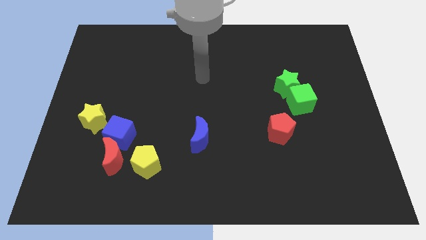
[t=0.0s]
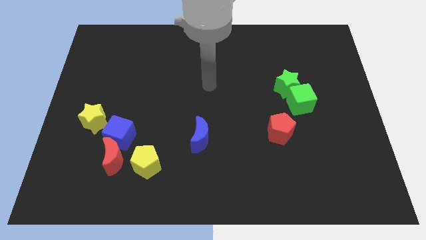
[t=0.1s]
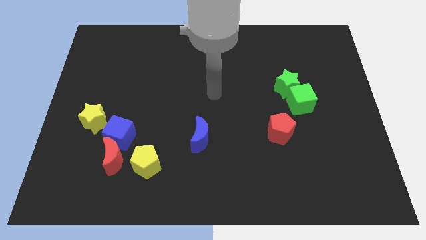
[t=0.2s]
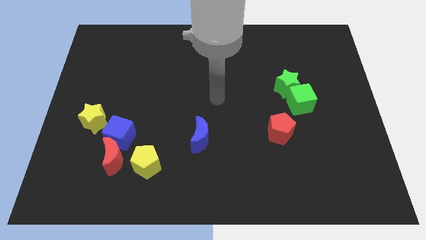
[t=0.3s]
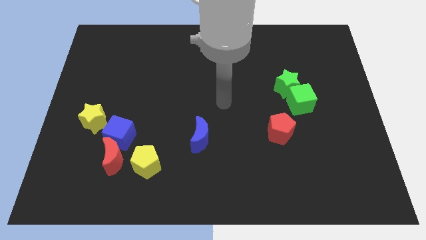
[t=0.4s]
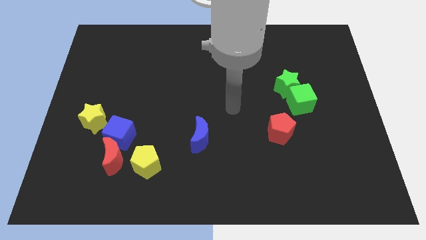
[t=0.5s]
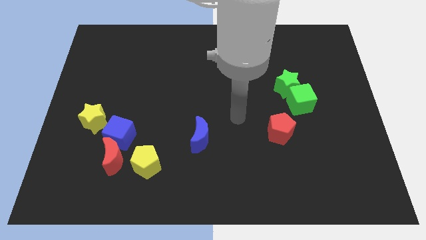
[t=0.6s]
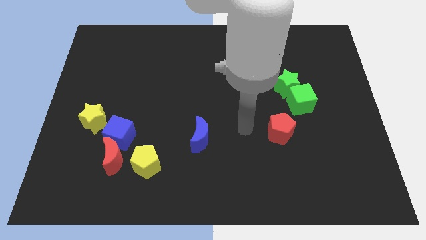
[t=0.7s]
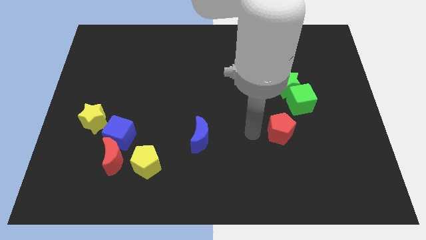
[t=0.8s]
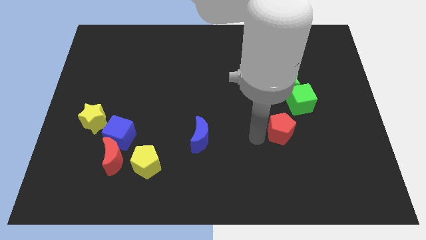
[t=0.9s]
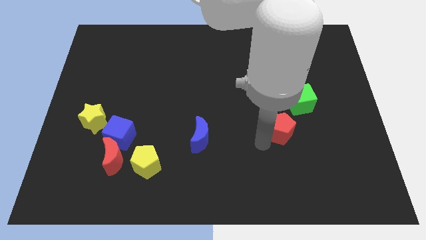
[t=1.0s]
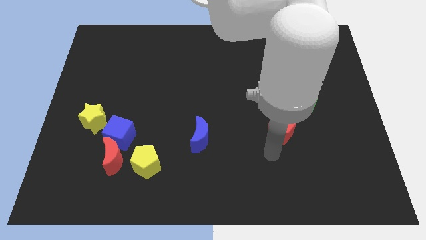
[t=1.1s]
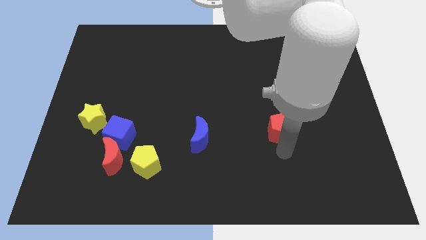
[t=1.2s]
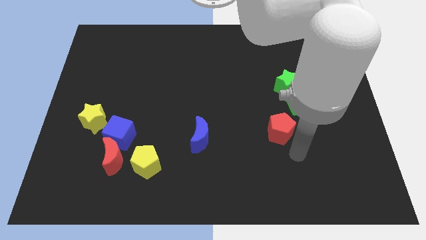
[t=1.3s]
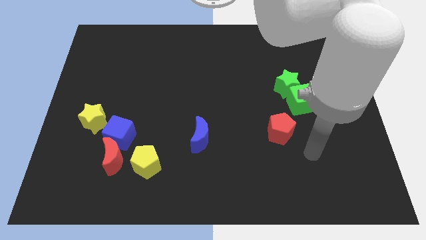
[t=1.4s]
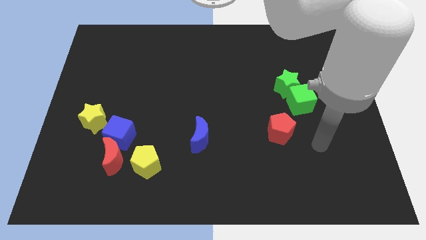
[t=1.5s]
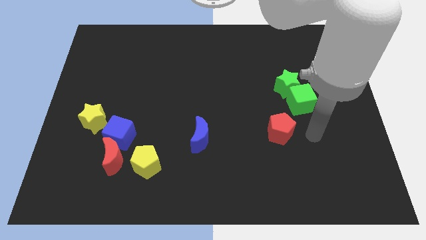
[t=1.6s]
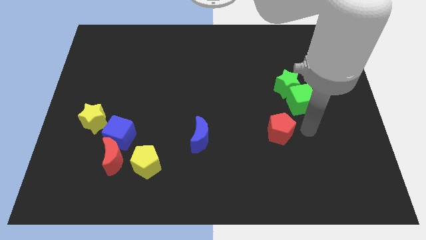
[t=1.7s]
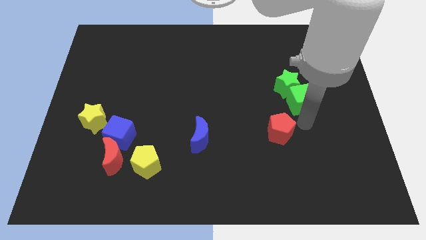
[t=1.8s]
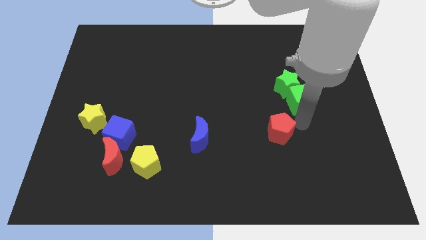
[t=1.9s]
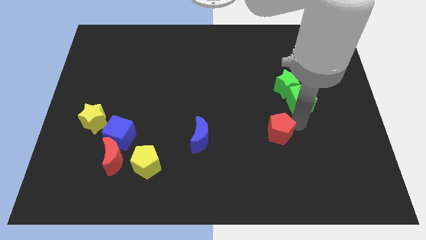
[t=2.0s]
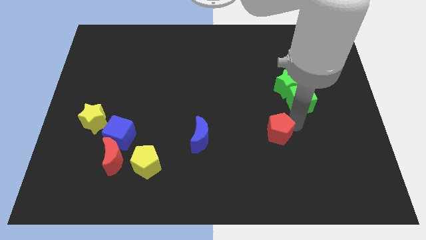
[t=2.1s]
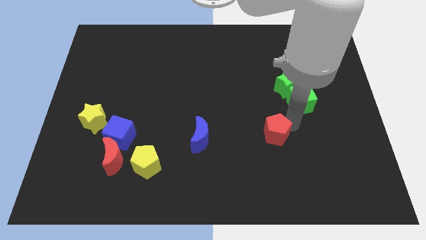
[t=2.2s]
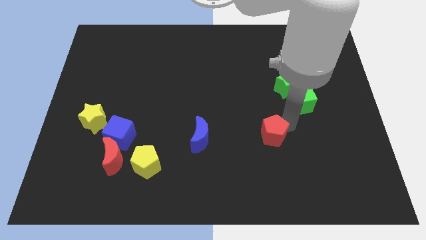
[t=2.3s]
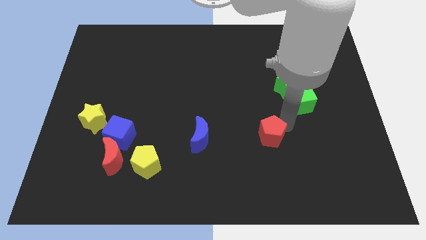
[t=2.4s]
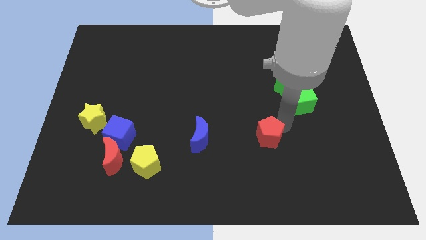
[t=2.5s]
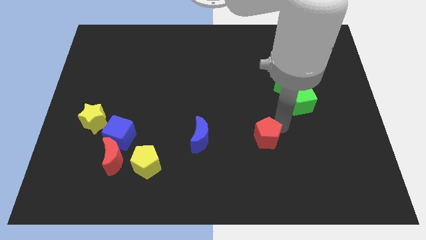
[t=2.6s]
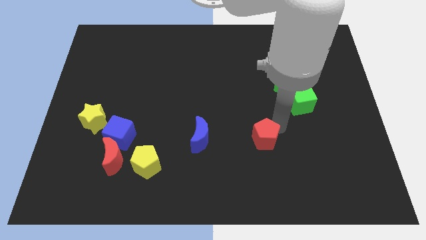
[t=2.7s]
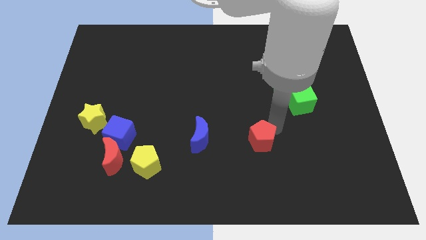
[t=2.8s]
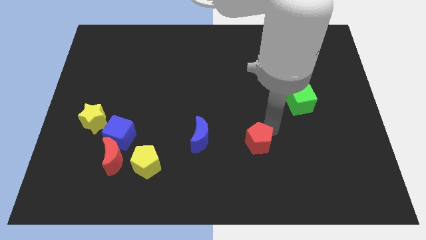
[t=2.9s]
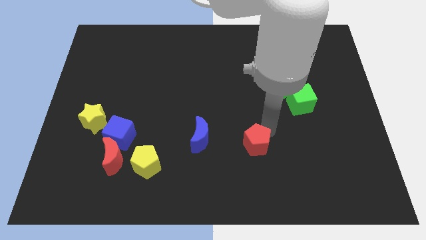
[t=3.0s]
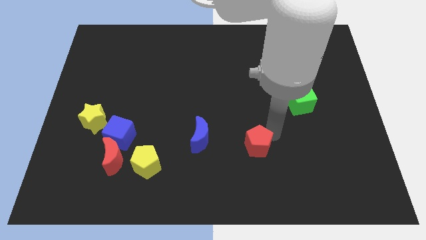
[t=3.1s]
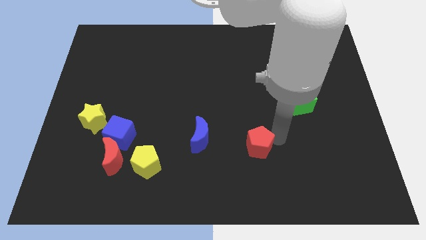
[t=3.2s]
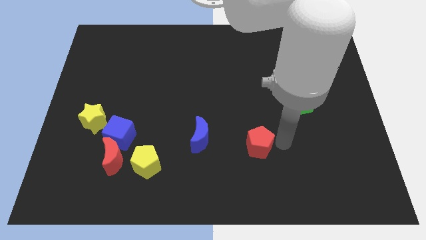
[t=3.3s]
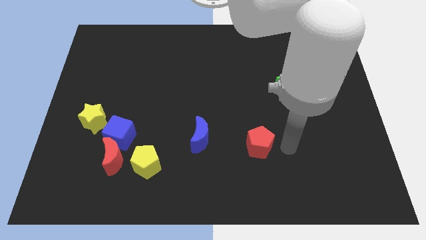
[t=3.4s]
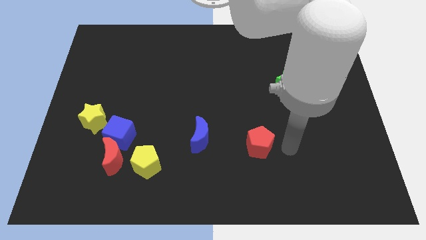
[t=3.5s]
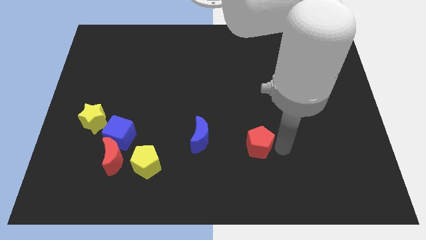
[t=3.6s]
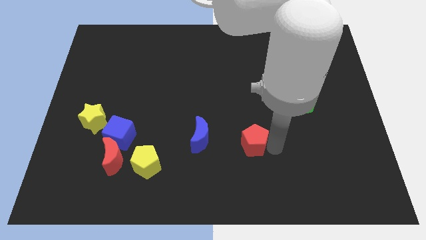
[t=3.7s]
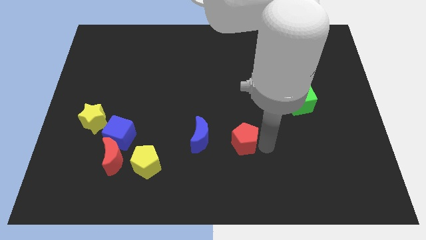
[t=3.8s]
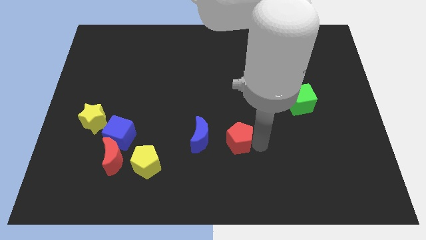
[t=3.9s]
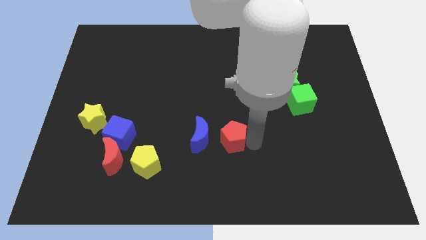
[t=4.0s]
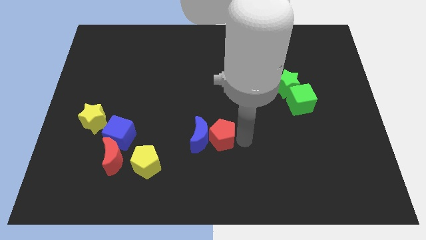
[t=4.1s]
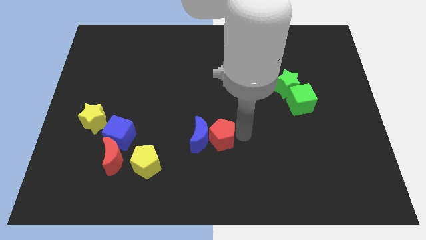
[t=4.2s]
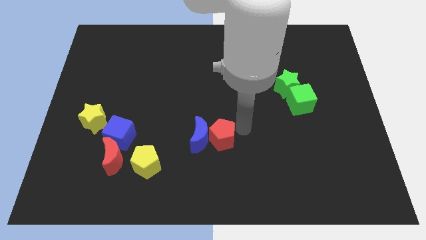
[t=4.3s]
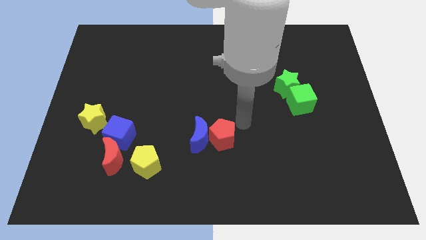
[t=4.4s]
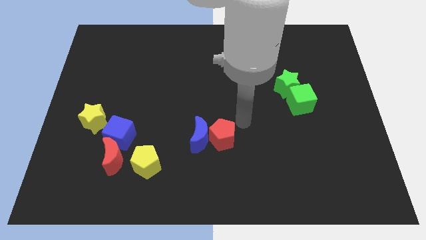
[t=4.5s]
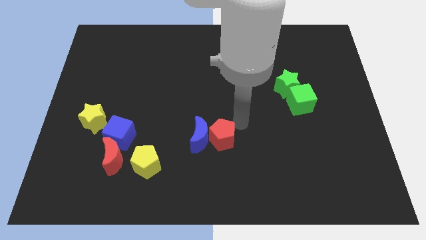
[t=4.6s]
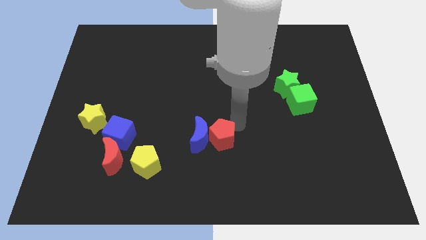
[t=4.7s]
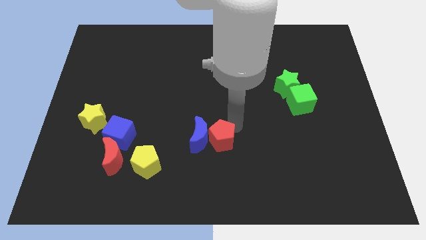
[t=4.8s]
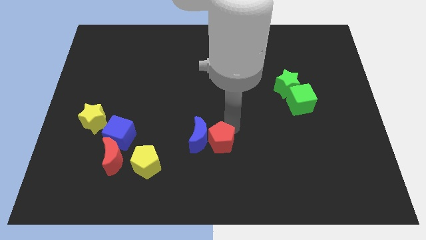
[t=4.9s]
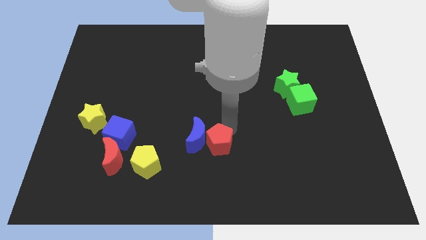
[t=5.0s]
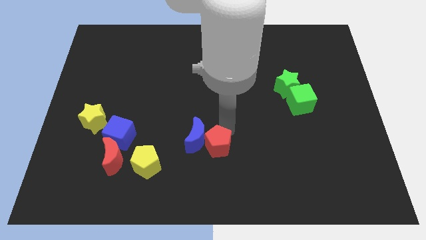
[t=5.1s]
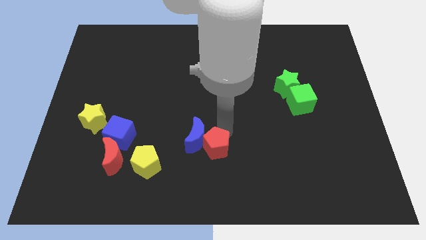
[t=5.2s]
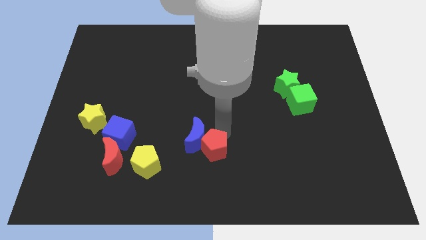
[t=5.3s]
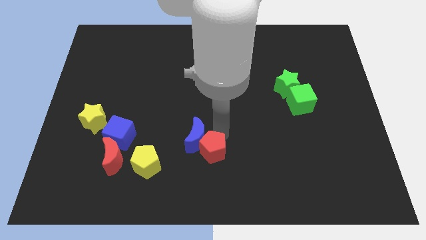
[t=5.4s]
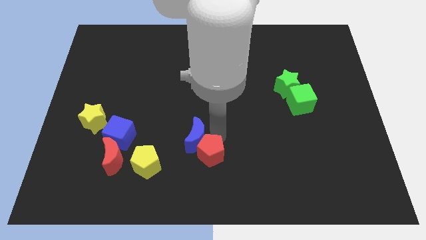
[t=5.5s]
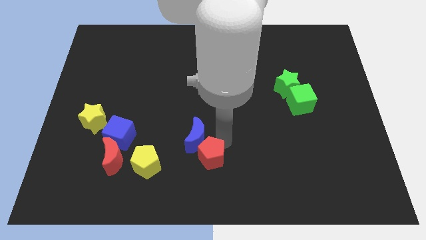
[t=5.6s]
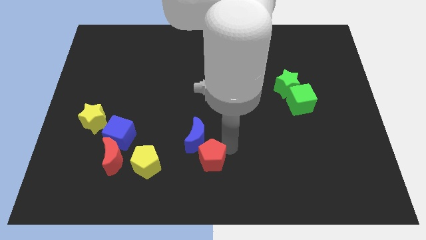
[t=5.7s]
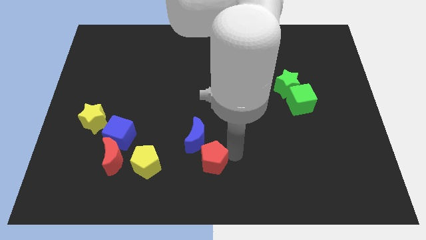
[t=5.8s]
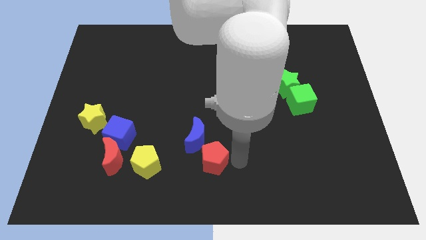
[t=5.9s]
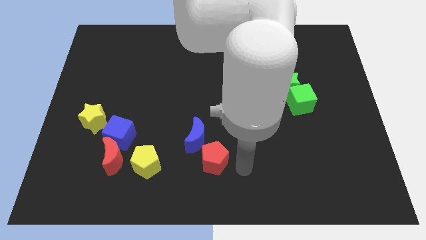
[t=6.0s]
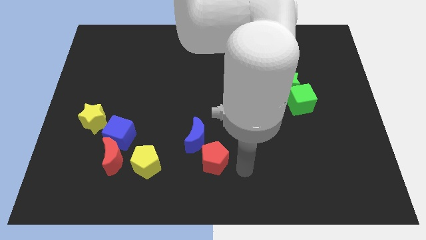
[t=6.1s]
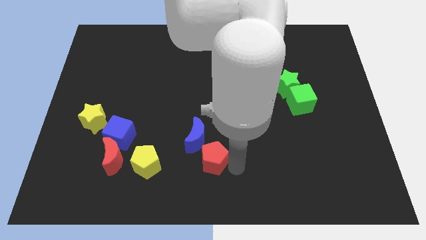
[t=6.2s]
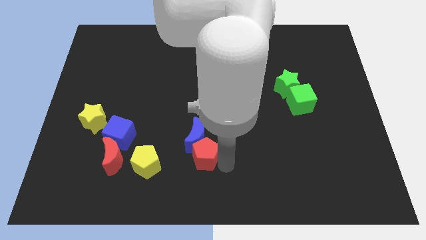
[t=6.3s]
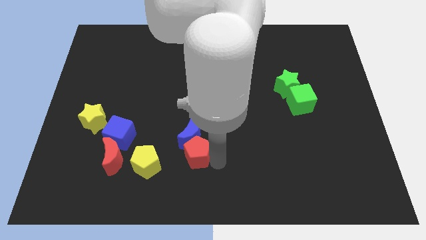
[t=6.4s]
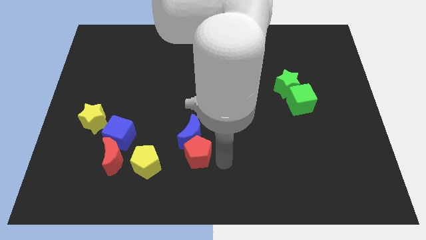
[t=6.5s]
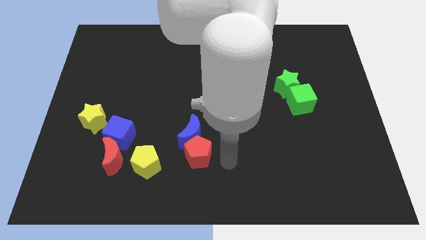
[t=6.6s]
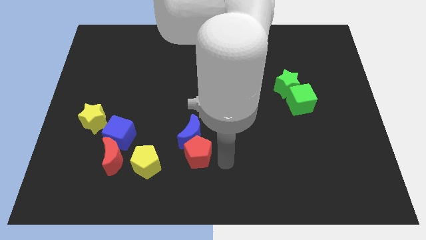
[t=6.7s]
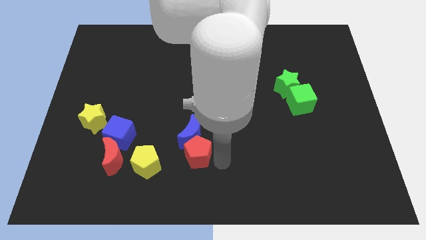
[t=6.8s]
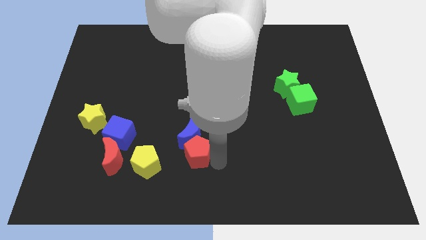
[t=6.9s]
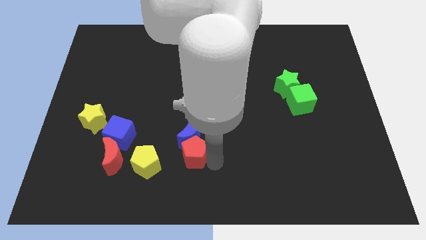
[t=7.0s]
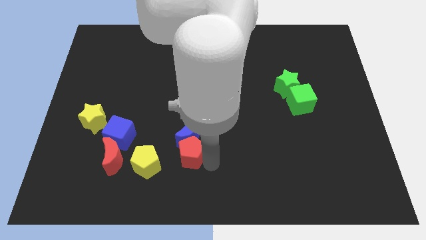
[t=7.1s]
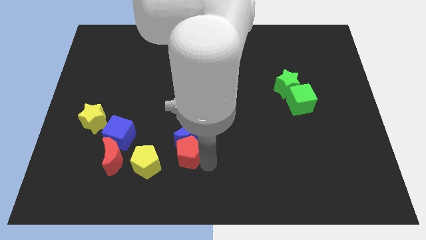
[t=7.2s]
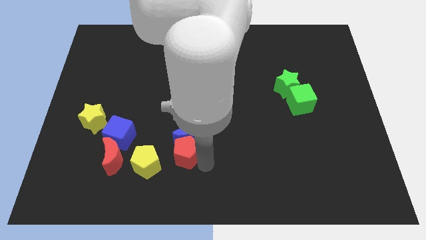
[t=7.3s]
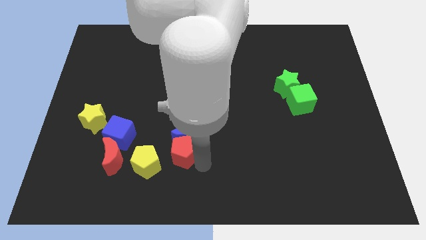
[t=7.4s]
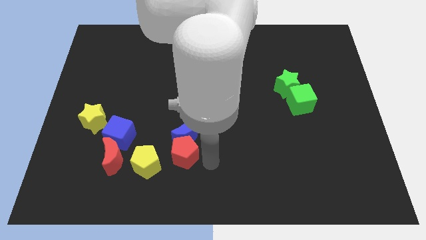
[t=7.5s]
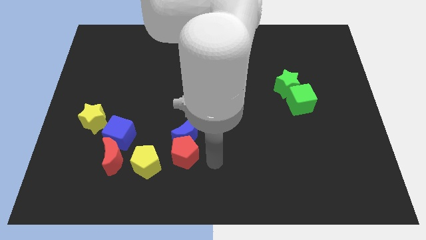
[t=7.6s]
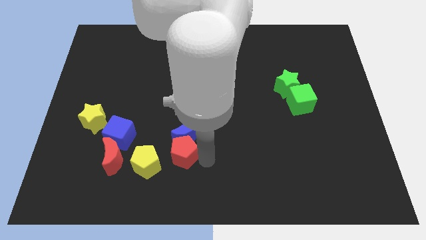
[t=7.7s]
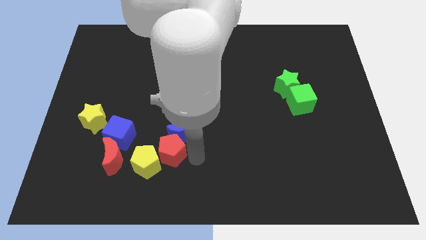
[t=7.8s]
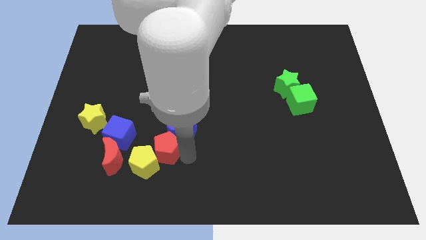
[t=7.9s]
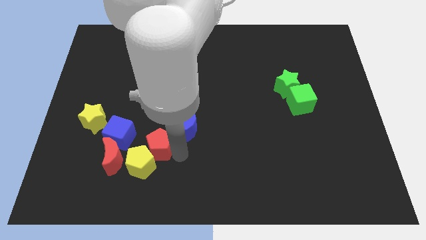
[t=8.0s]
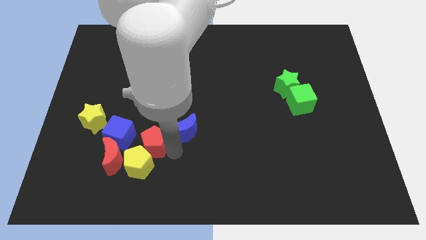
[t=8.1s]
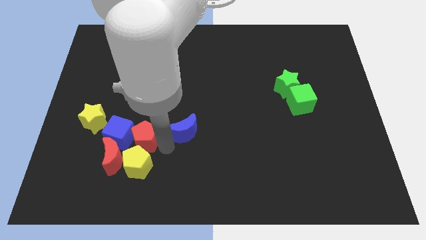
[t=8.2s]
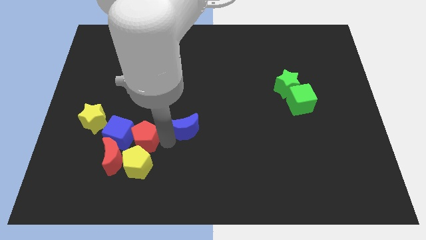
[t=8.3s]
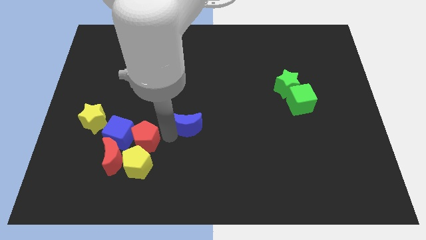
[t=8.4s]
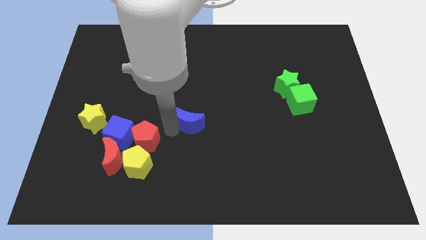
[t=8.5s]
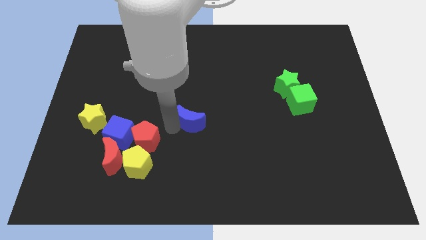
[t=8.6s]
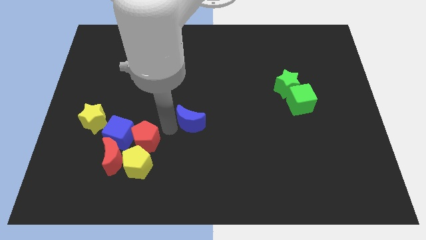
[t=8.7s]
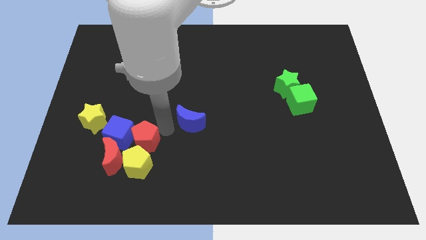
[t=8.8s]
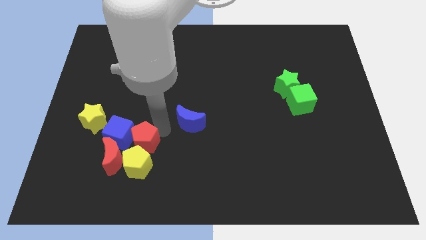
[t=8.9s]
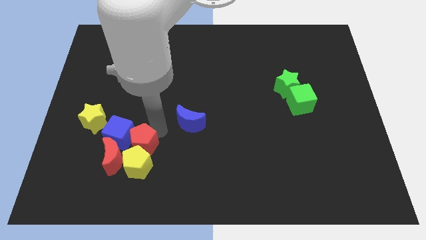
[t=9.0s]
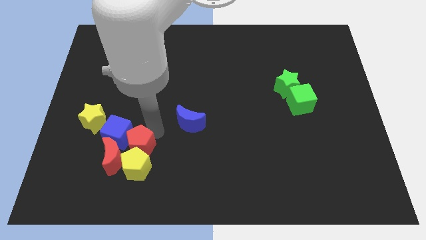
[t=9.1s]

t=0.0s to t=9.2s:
slide the red pentagon close to the red moon
